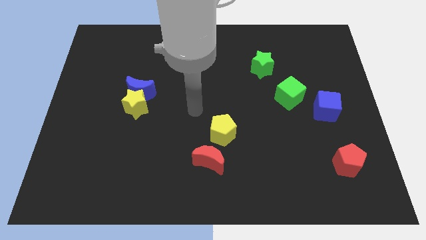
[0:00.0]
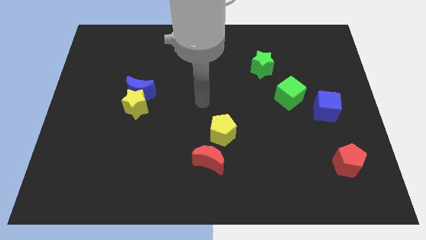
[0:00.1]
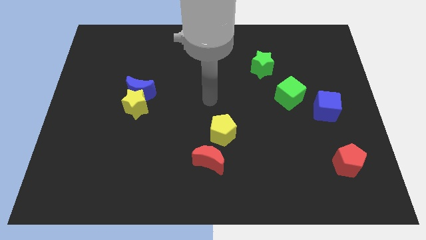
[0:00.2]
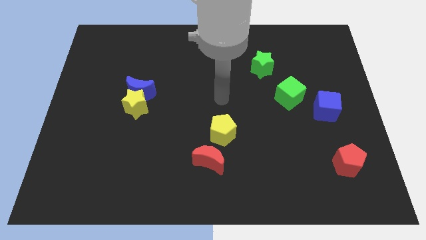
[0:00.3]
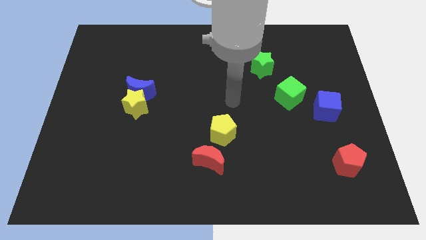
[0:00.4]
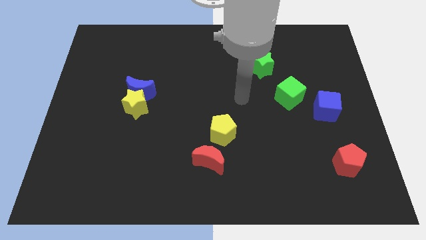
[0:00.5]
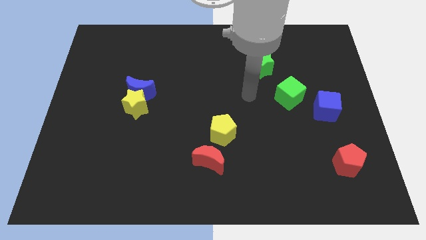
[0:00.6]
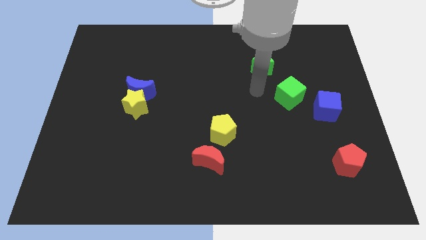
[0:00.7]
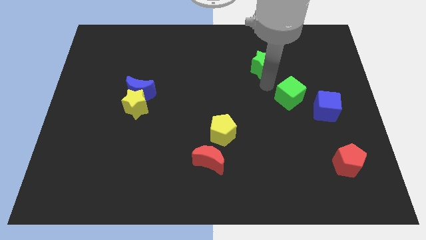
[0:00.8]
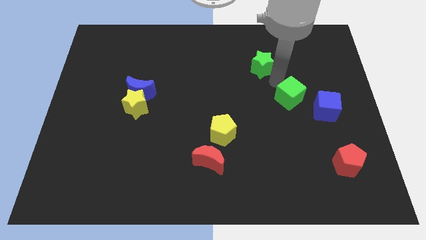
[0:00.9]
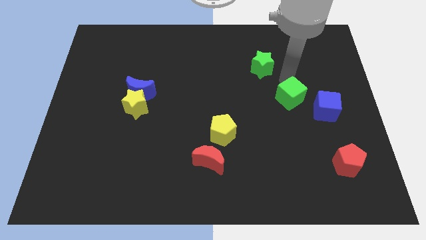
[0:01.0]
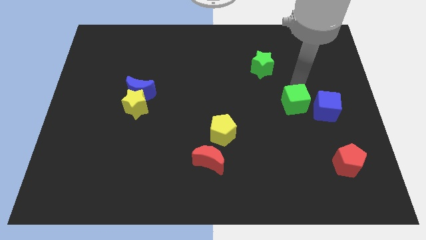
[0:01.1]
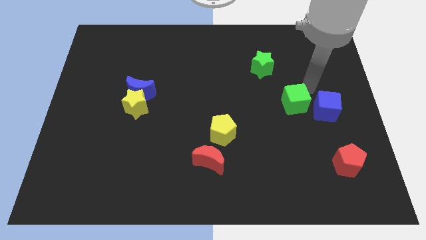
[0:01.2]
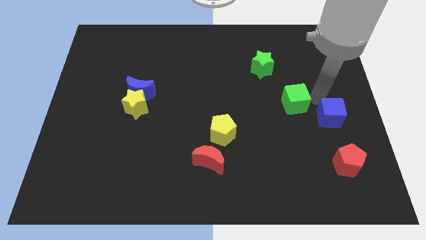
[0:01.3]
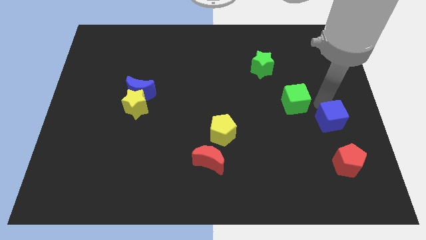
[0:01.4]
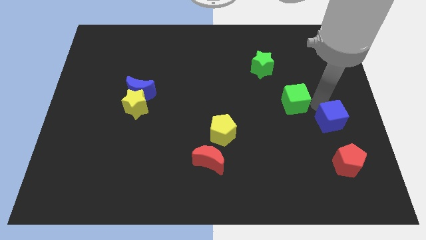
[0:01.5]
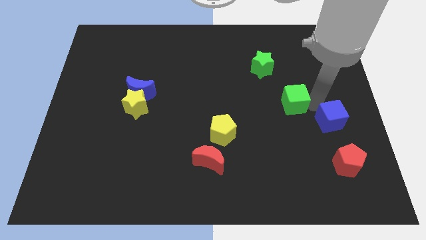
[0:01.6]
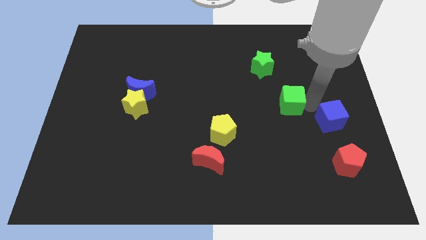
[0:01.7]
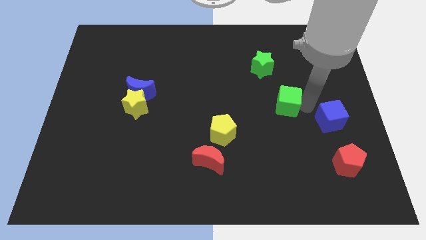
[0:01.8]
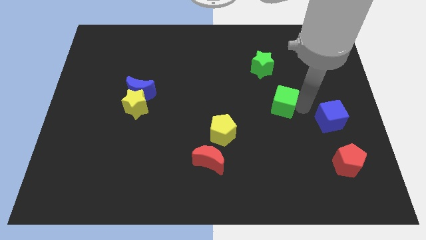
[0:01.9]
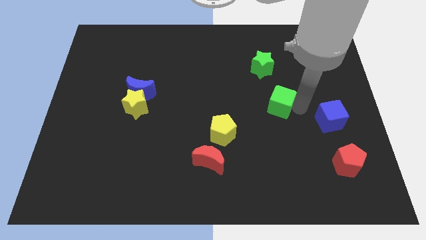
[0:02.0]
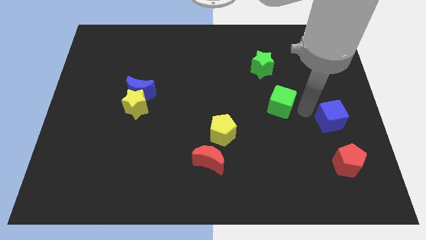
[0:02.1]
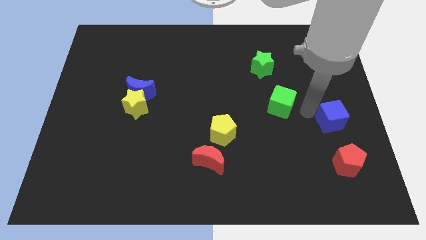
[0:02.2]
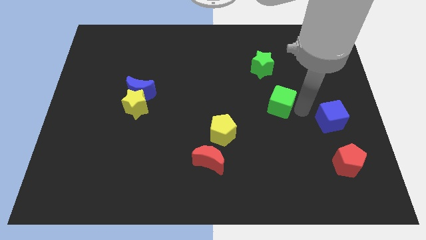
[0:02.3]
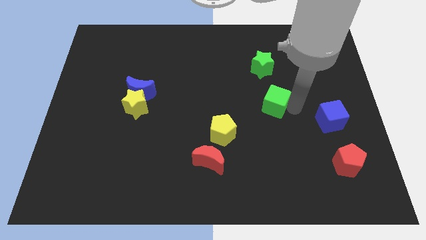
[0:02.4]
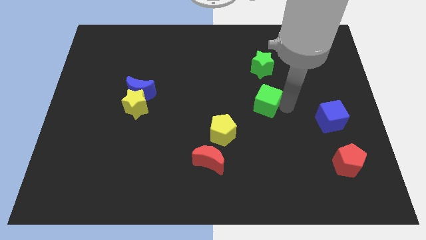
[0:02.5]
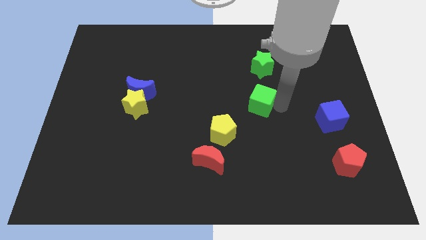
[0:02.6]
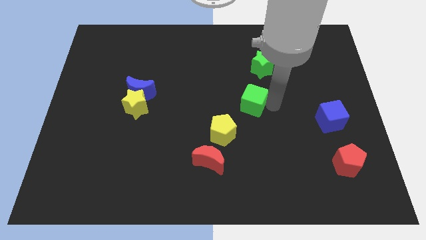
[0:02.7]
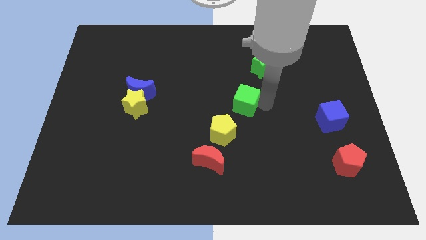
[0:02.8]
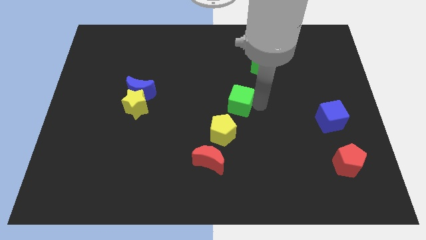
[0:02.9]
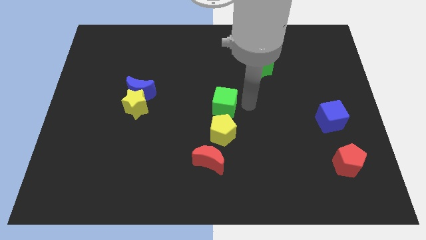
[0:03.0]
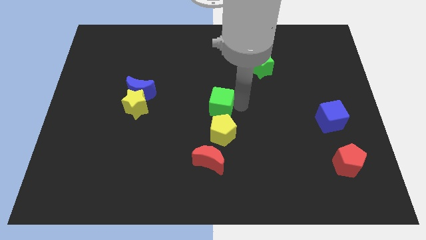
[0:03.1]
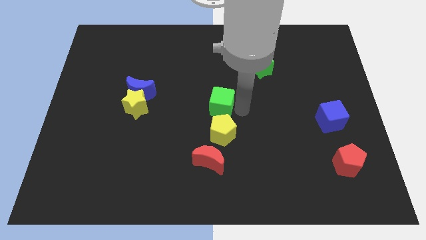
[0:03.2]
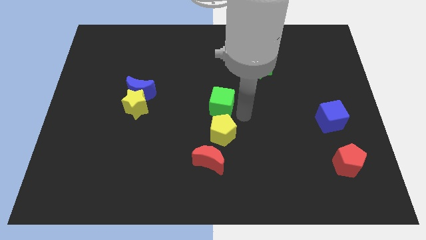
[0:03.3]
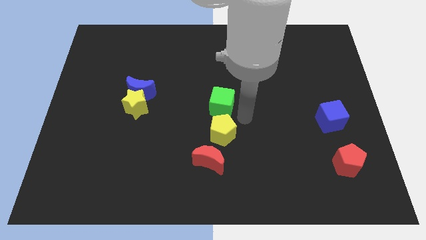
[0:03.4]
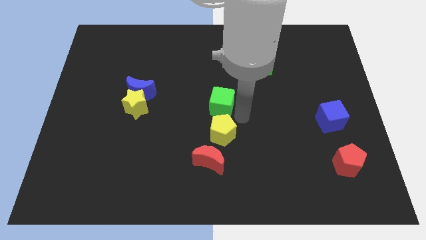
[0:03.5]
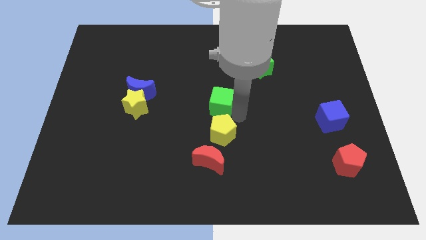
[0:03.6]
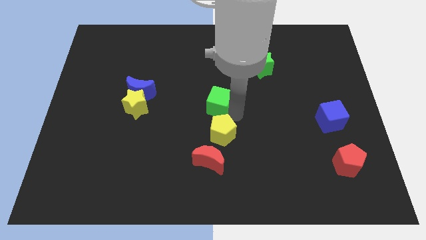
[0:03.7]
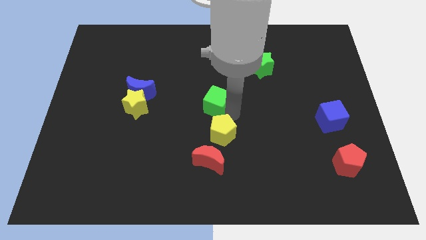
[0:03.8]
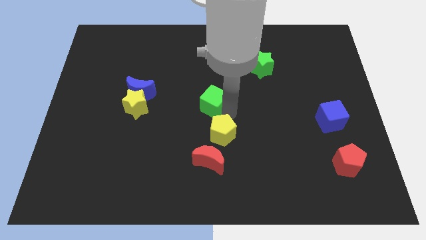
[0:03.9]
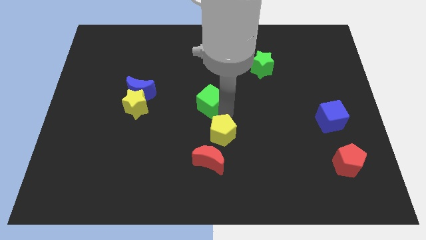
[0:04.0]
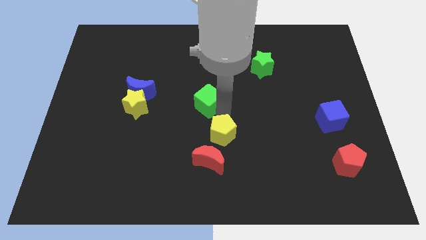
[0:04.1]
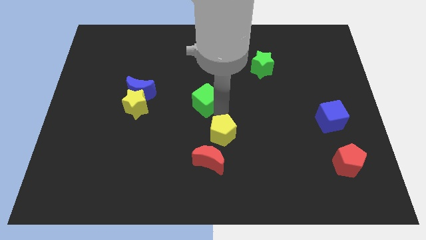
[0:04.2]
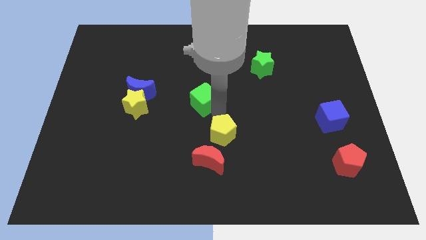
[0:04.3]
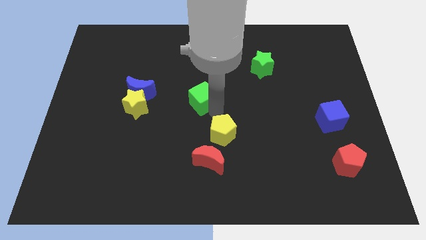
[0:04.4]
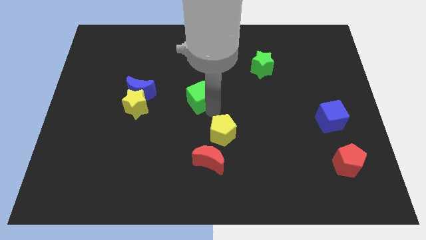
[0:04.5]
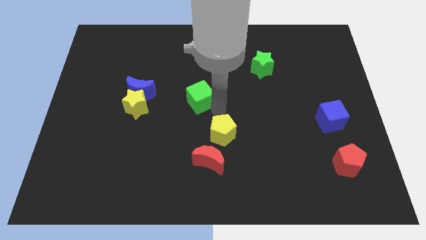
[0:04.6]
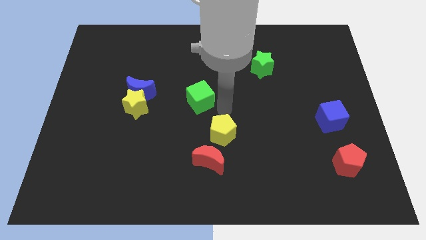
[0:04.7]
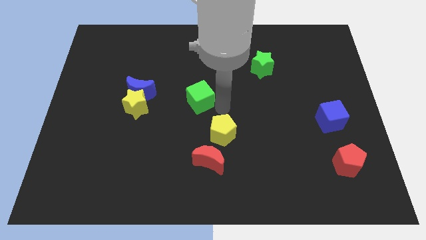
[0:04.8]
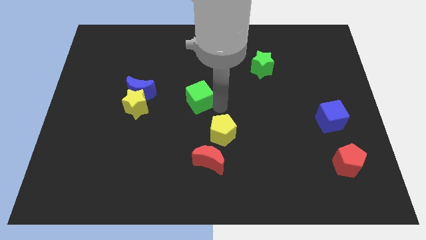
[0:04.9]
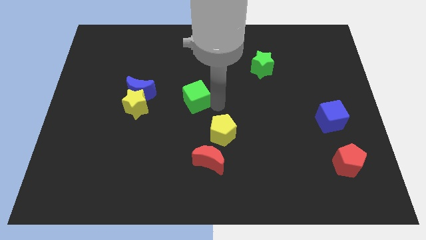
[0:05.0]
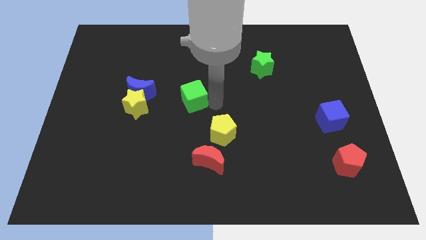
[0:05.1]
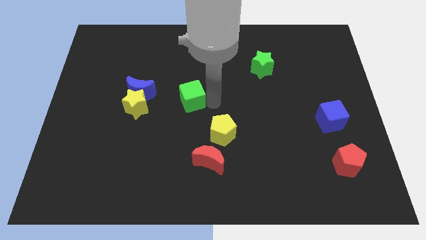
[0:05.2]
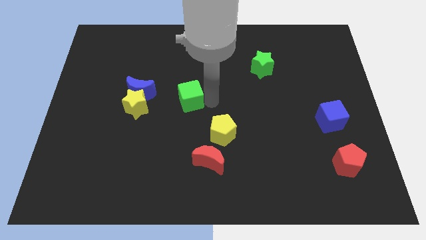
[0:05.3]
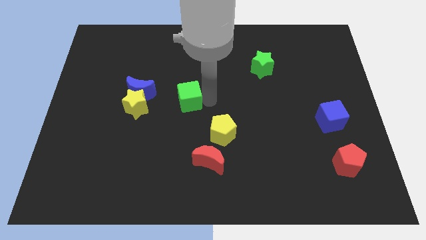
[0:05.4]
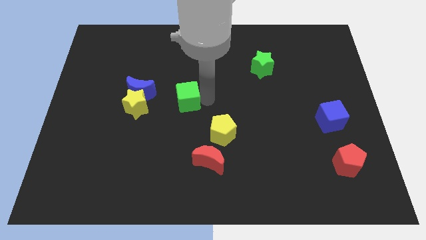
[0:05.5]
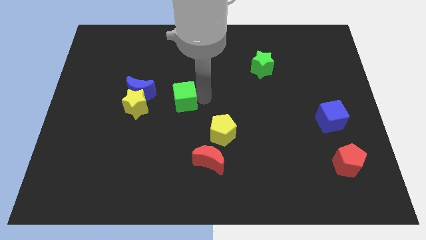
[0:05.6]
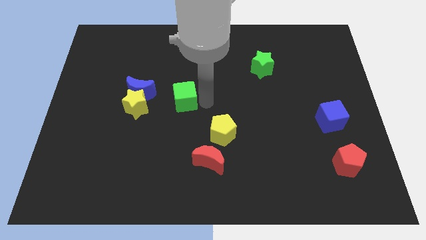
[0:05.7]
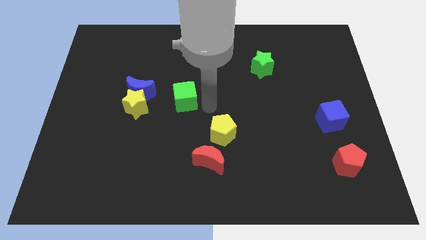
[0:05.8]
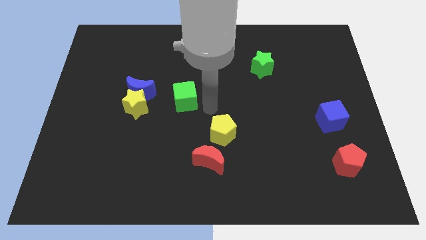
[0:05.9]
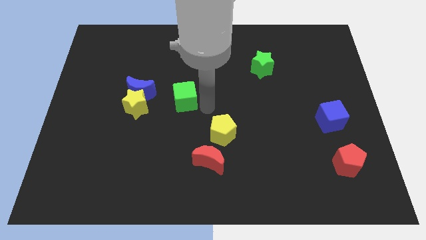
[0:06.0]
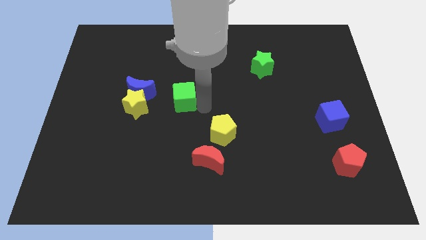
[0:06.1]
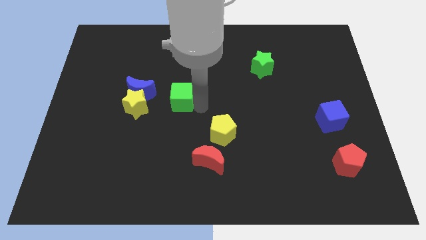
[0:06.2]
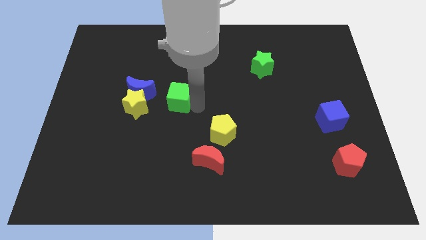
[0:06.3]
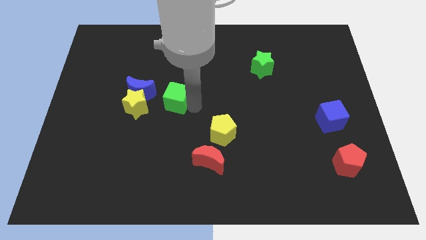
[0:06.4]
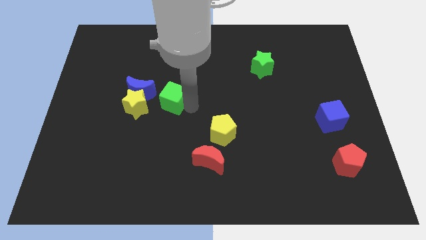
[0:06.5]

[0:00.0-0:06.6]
move the green cube diagonally up and to the right of the yellow star
